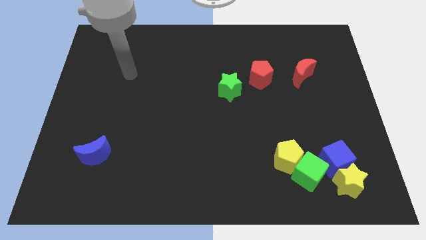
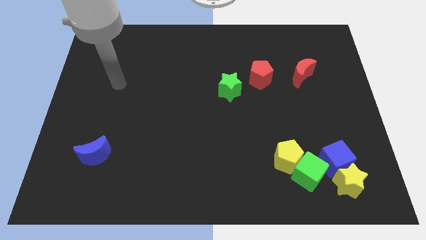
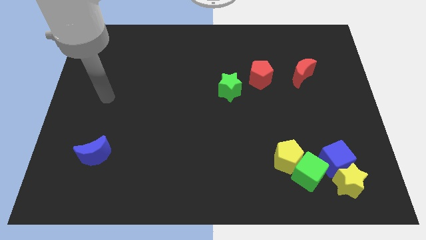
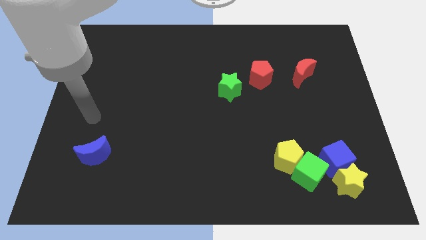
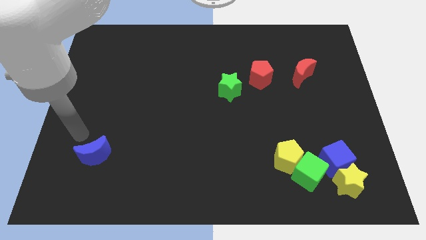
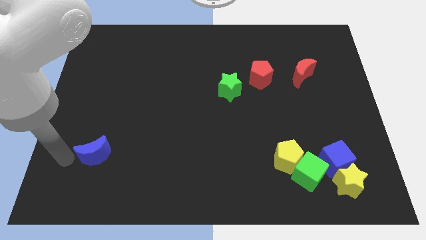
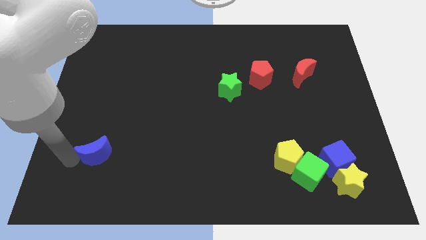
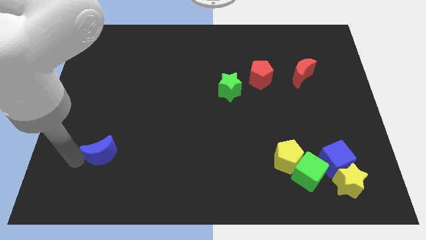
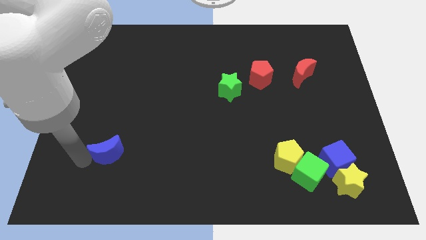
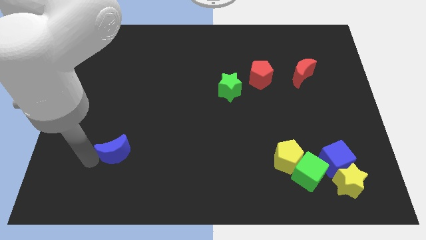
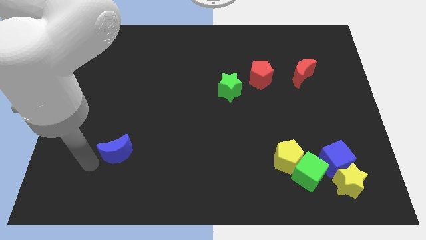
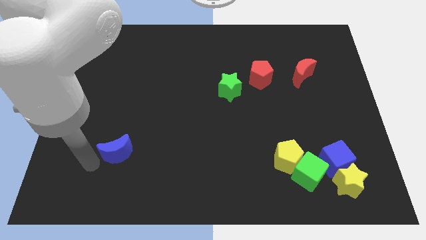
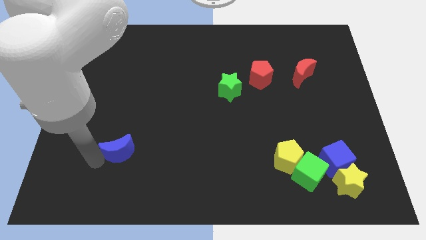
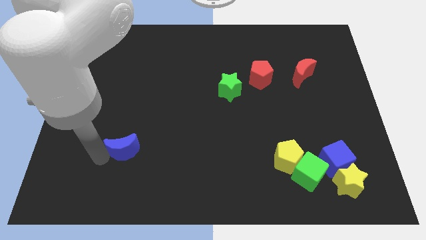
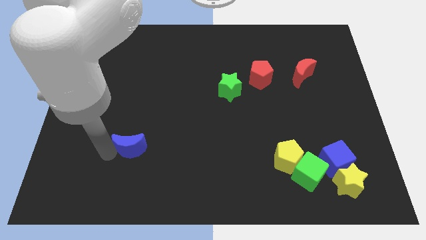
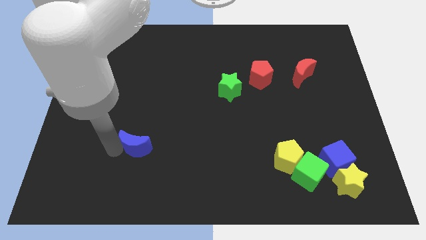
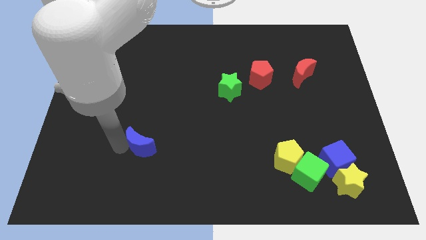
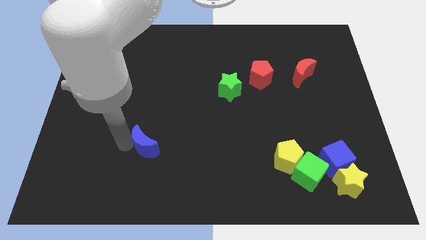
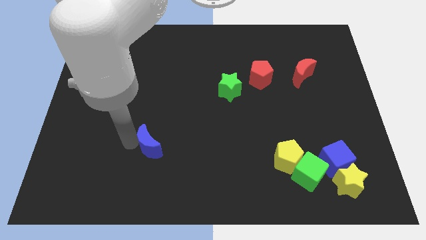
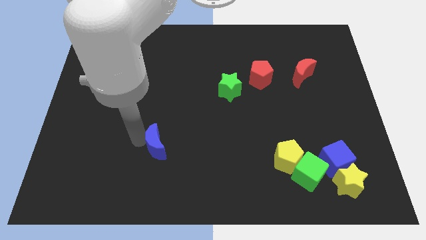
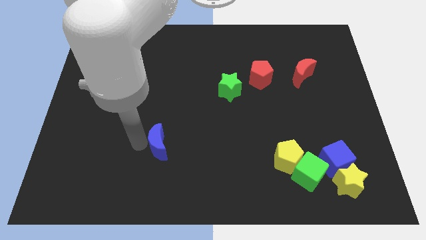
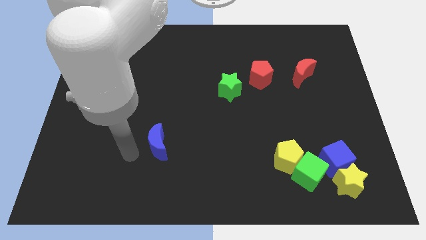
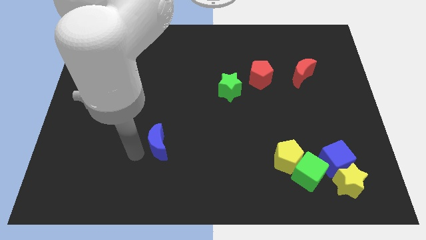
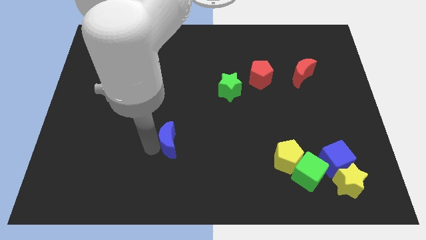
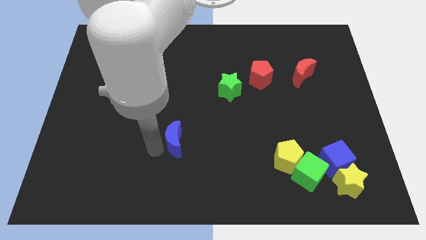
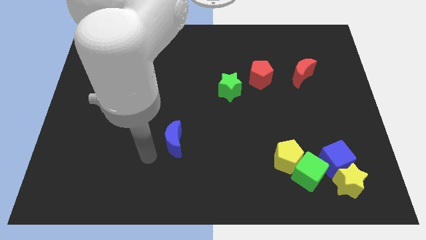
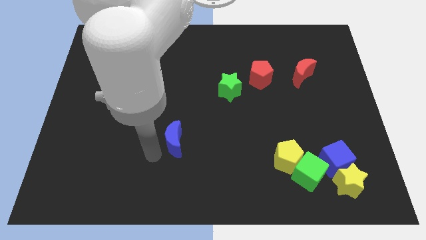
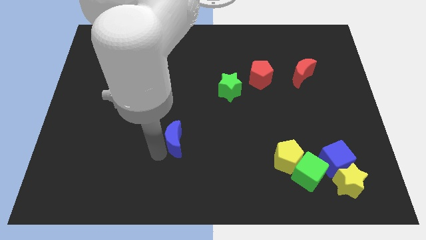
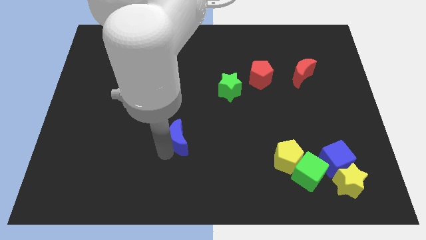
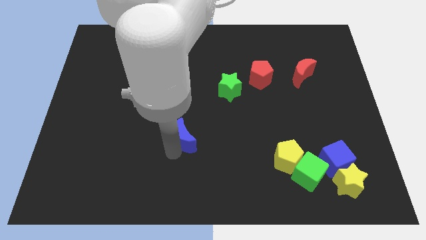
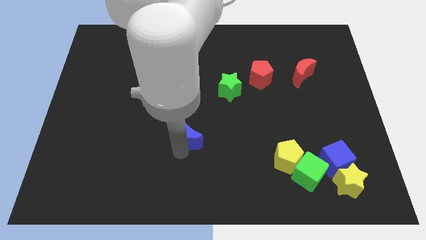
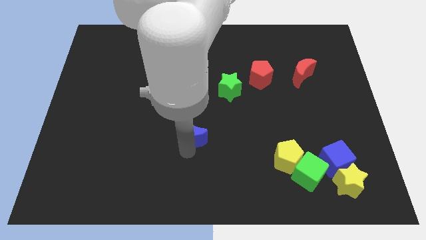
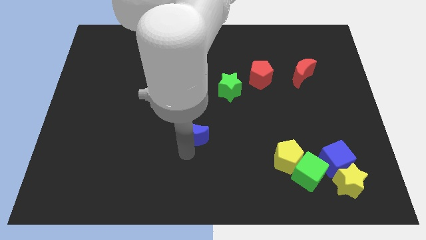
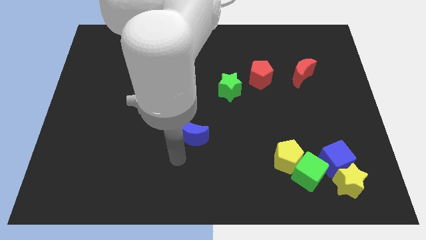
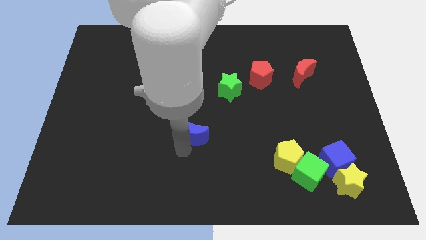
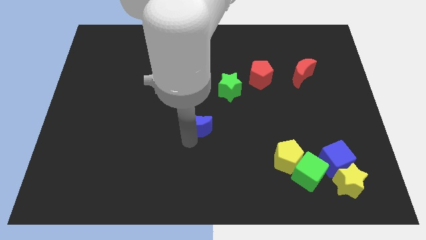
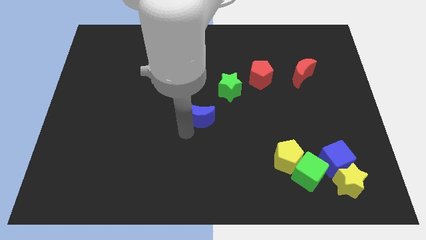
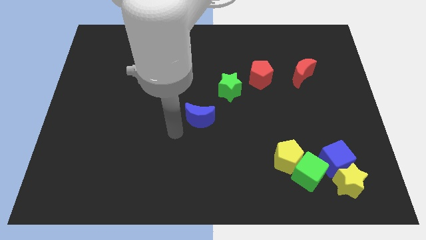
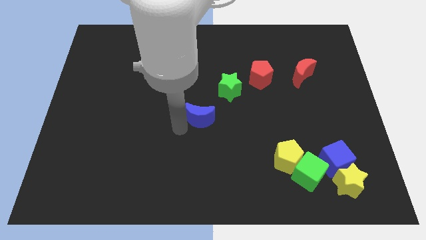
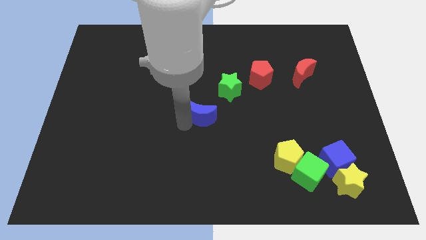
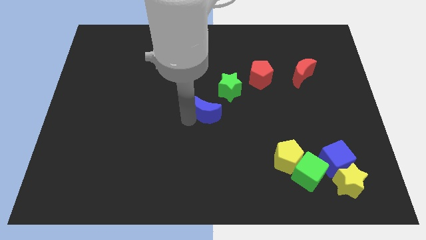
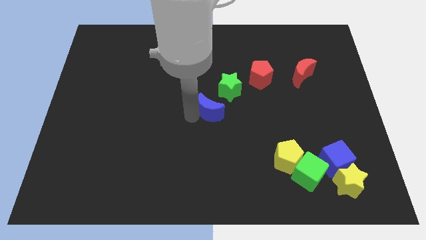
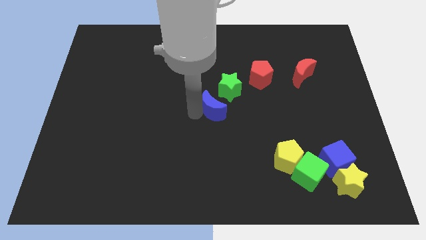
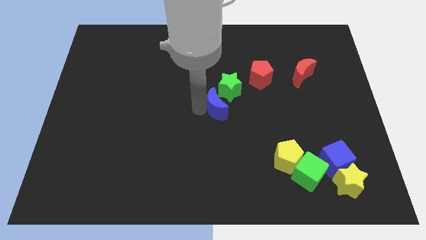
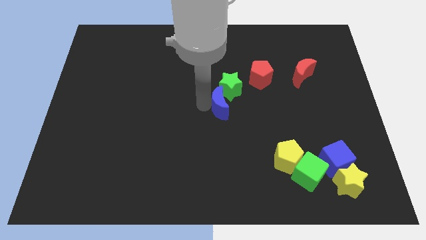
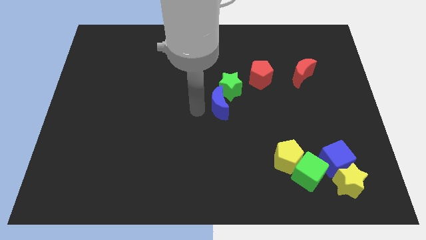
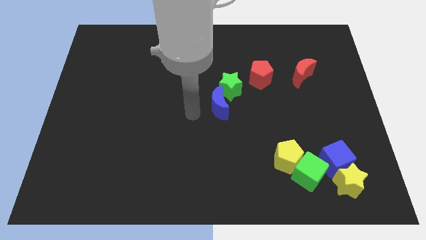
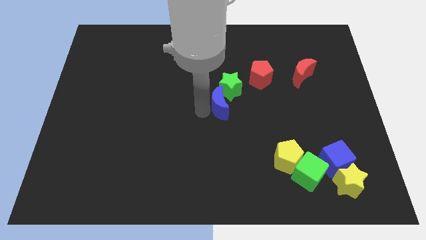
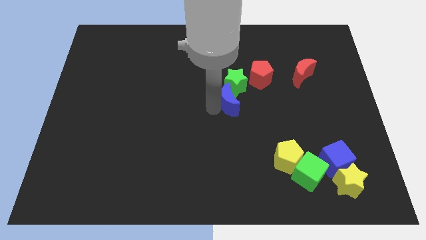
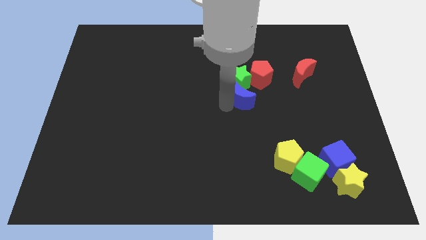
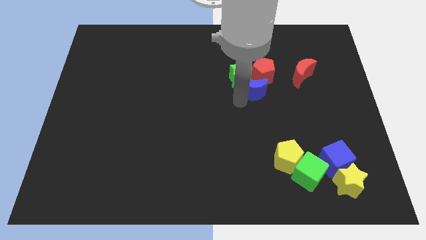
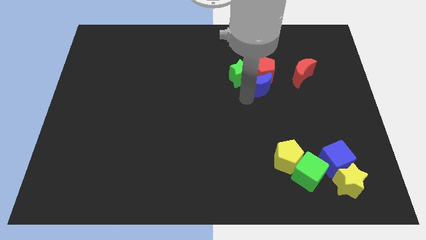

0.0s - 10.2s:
put the blue moon next to the red pentagon
